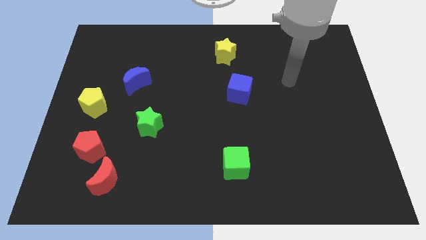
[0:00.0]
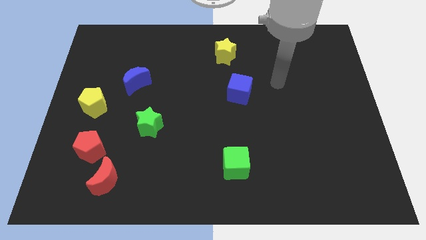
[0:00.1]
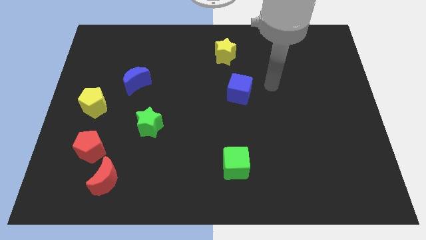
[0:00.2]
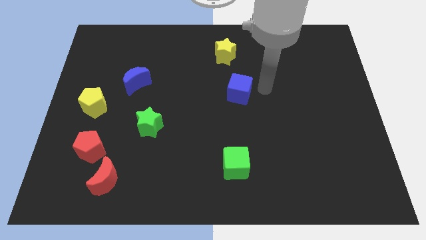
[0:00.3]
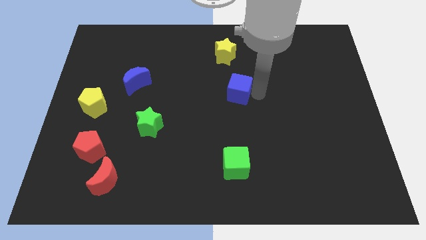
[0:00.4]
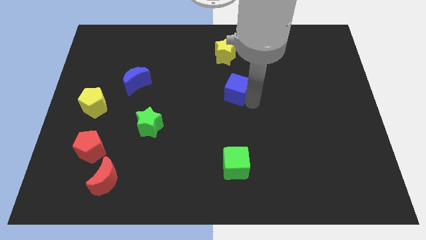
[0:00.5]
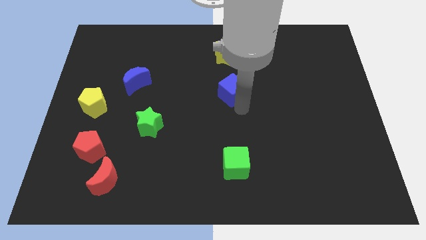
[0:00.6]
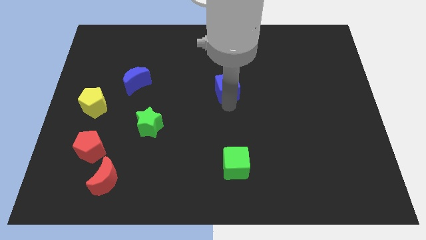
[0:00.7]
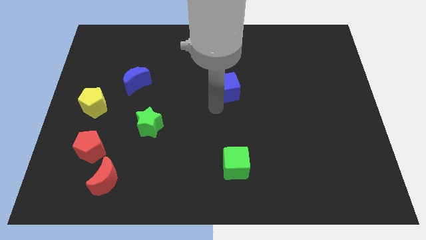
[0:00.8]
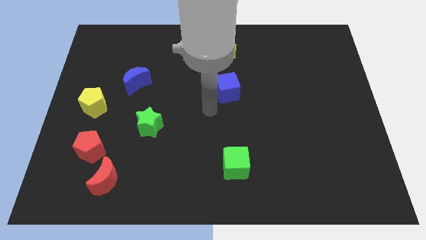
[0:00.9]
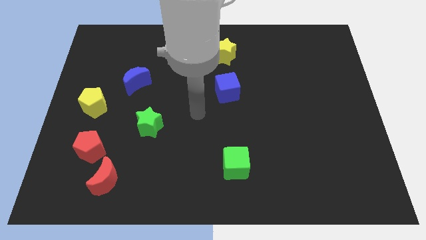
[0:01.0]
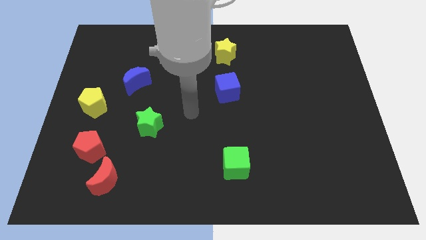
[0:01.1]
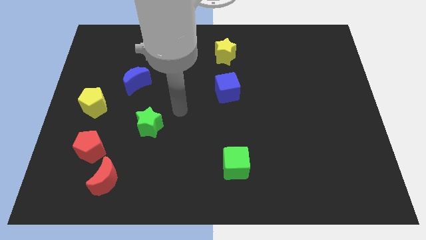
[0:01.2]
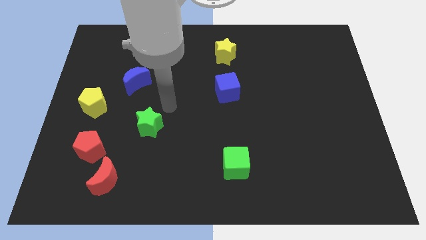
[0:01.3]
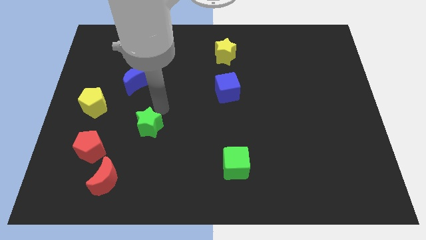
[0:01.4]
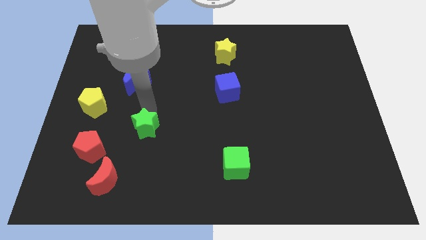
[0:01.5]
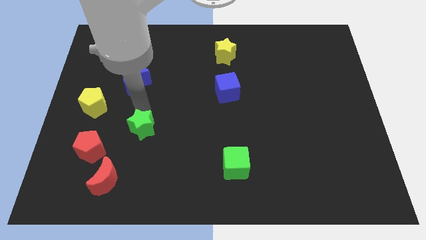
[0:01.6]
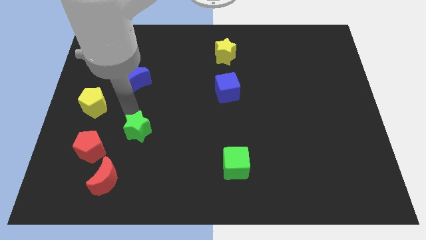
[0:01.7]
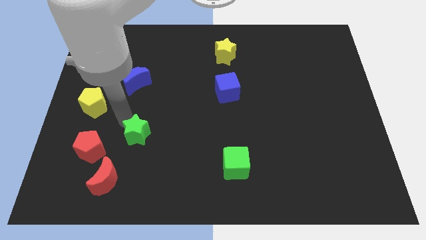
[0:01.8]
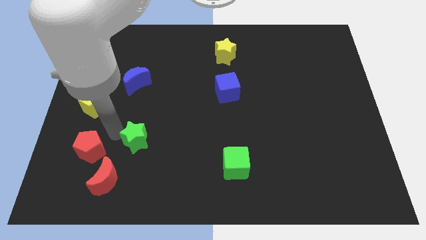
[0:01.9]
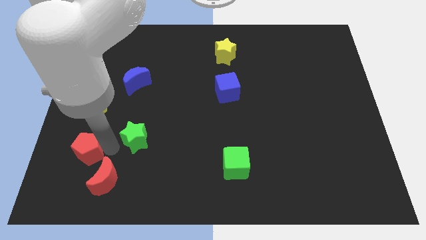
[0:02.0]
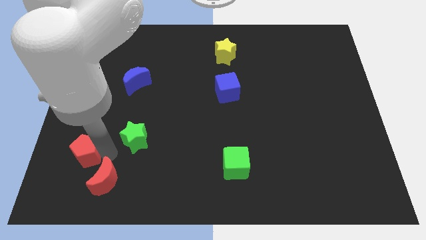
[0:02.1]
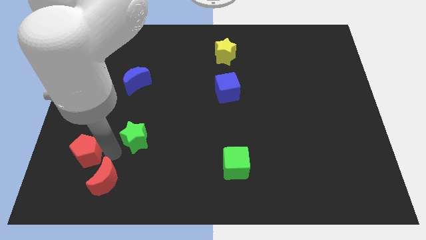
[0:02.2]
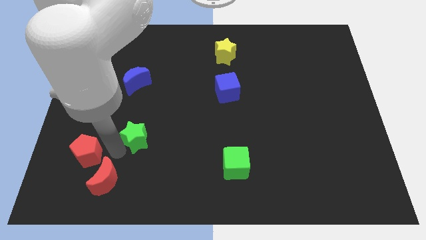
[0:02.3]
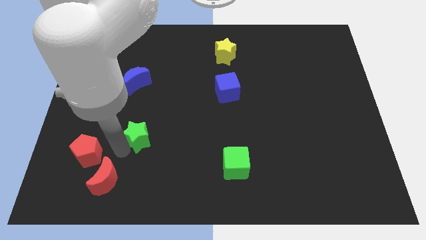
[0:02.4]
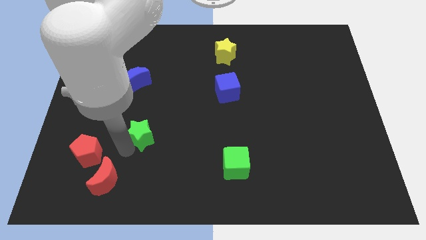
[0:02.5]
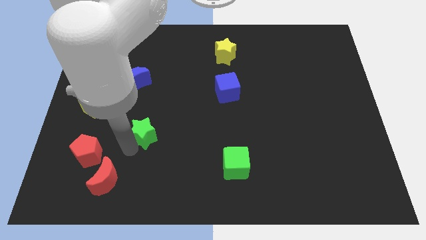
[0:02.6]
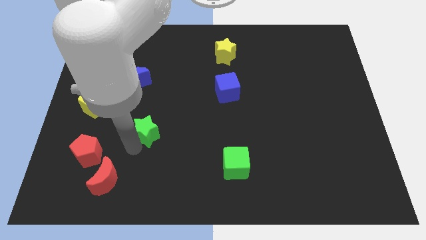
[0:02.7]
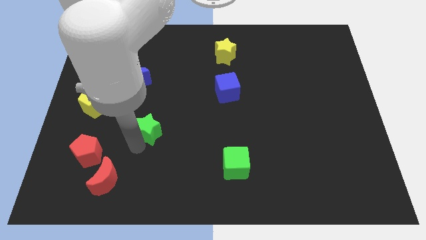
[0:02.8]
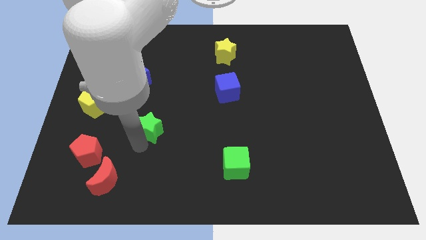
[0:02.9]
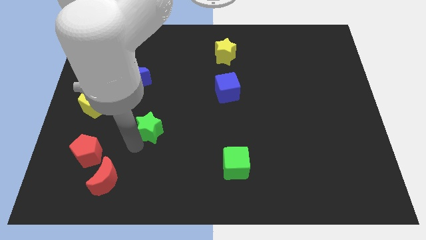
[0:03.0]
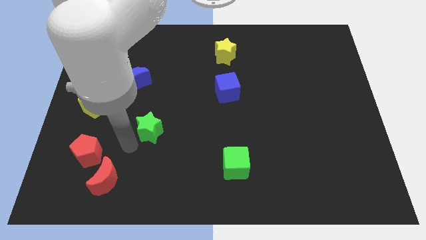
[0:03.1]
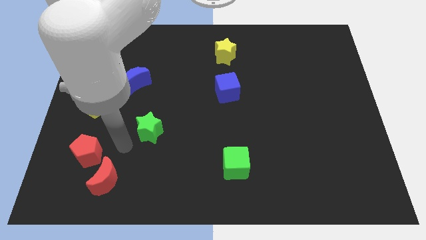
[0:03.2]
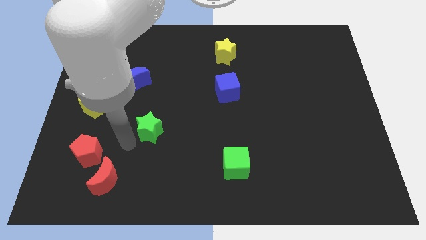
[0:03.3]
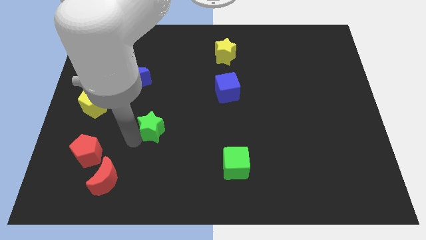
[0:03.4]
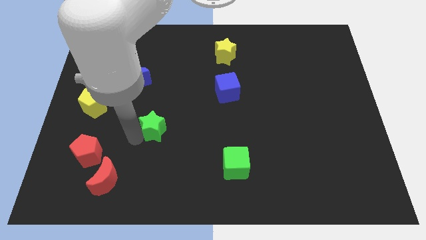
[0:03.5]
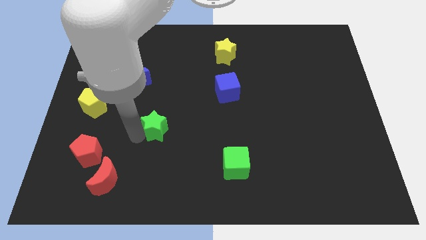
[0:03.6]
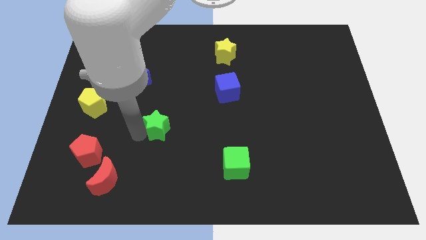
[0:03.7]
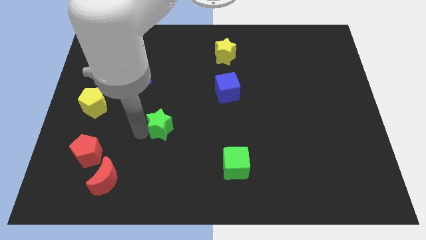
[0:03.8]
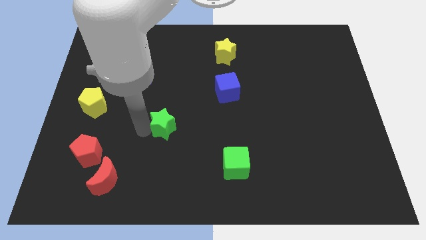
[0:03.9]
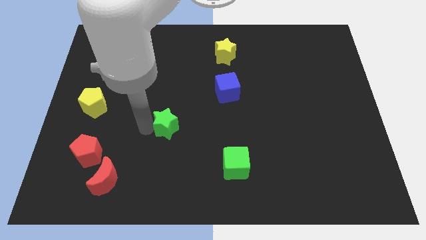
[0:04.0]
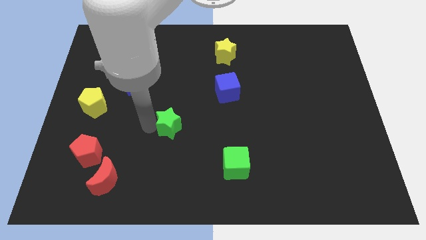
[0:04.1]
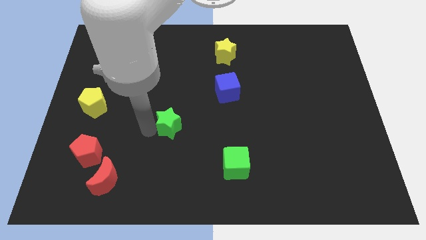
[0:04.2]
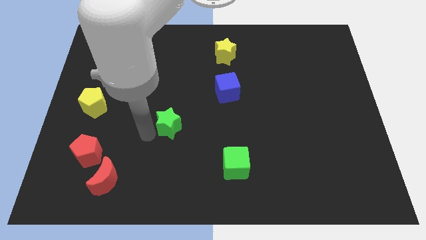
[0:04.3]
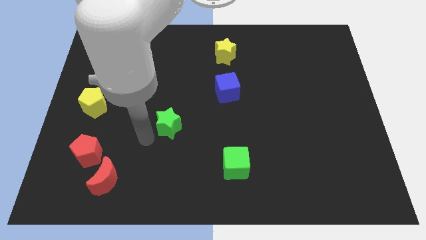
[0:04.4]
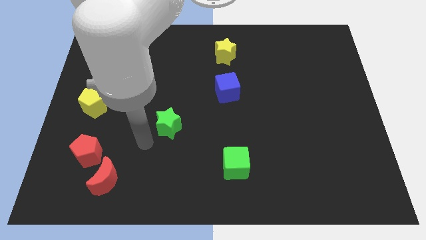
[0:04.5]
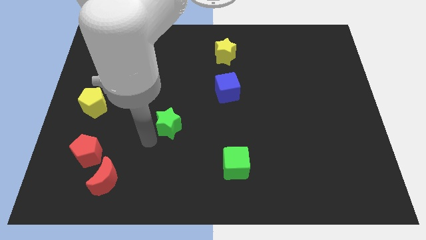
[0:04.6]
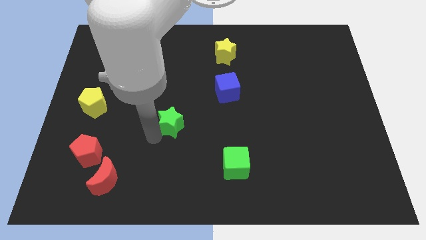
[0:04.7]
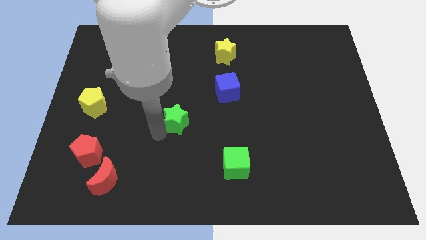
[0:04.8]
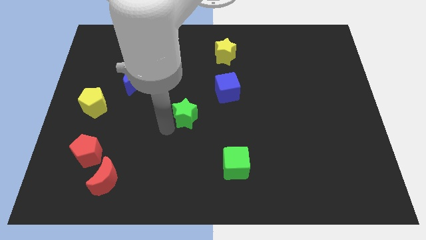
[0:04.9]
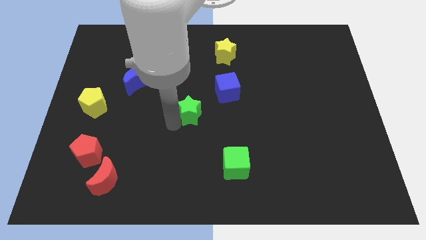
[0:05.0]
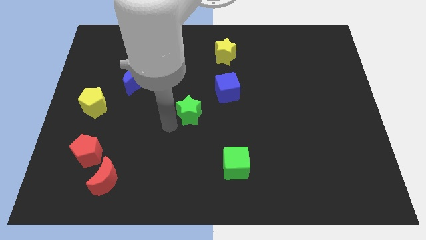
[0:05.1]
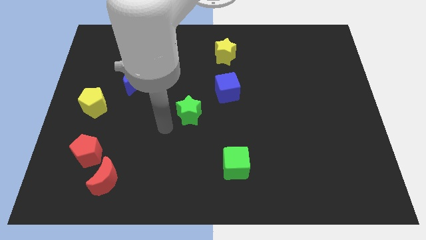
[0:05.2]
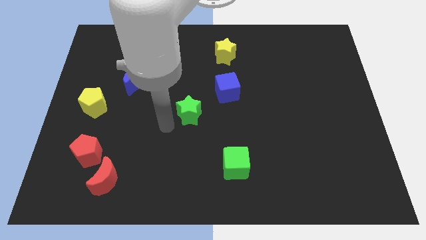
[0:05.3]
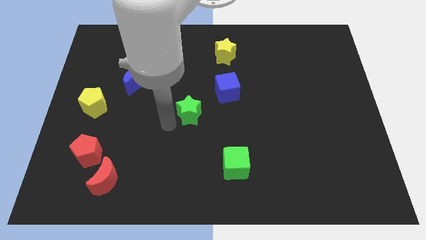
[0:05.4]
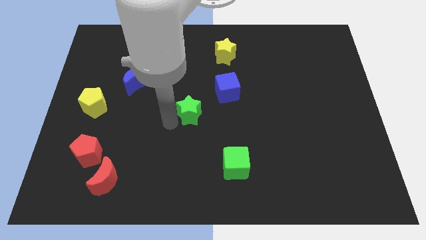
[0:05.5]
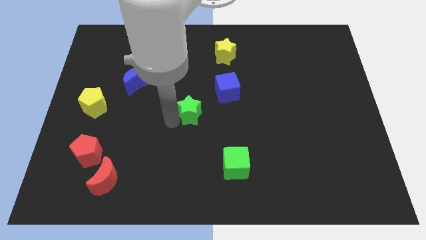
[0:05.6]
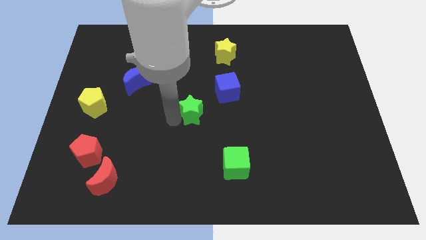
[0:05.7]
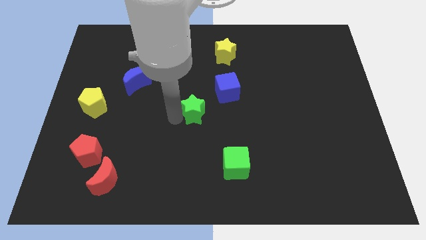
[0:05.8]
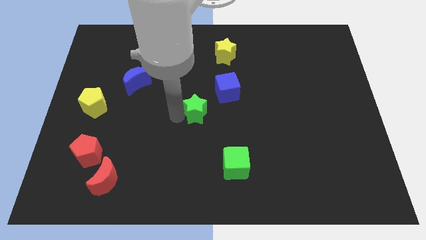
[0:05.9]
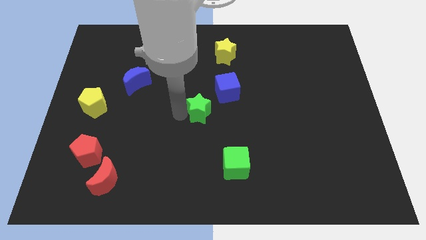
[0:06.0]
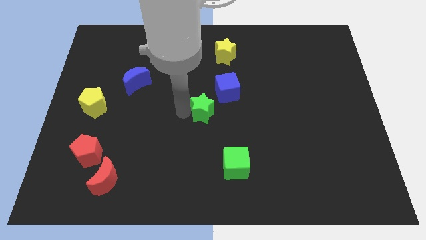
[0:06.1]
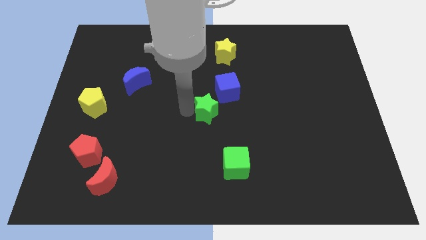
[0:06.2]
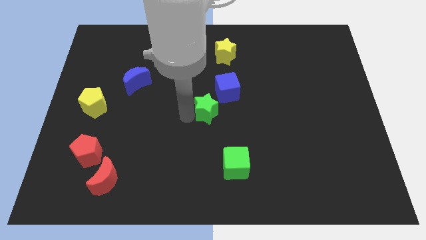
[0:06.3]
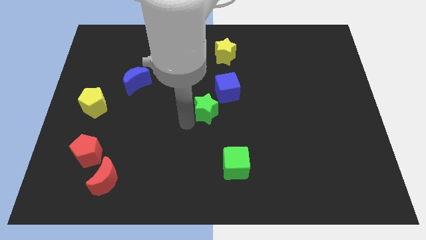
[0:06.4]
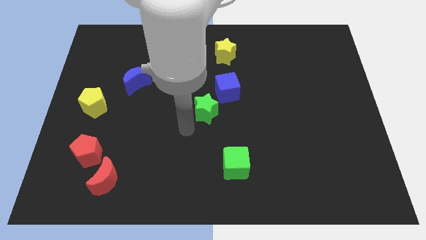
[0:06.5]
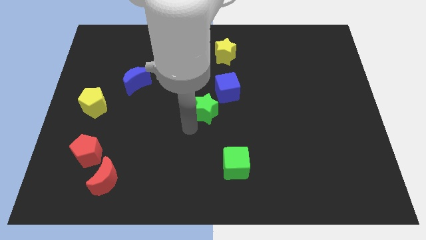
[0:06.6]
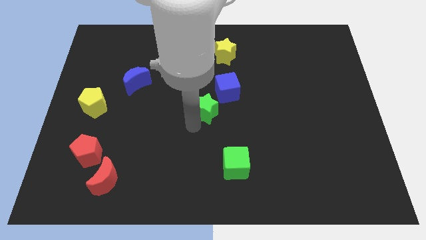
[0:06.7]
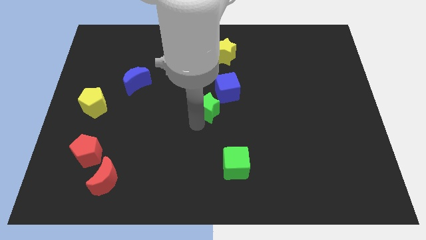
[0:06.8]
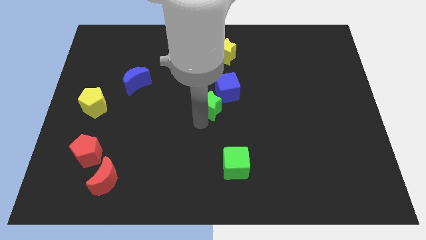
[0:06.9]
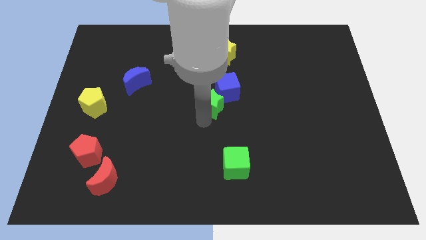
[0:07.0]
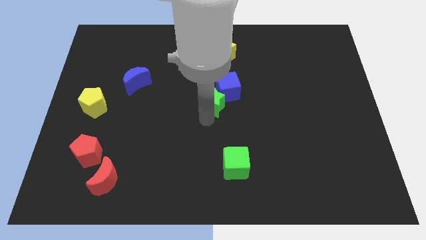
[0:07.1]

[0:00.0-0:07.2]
push the green star next to the blue cube

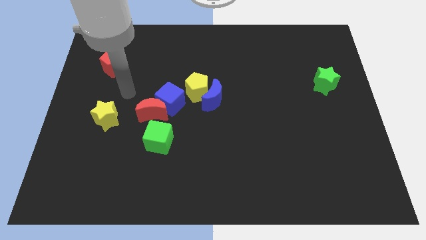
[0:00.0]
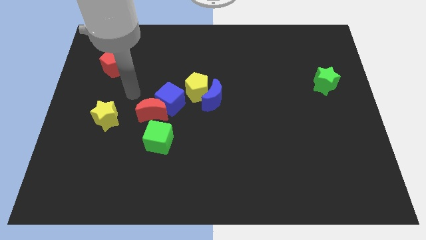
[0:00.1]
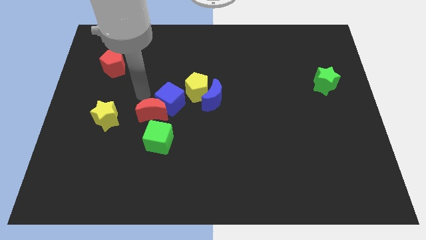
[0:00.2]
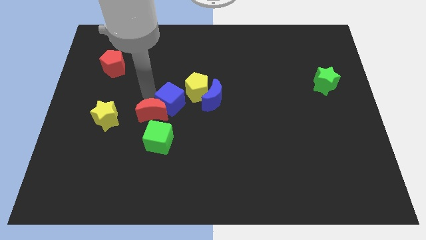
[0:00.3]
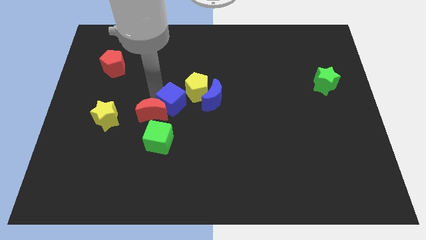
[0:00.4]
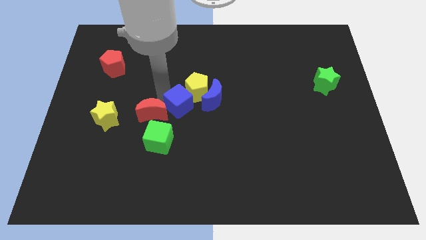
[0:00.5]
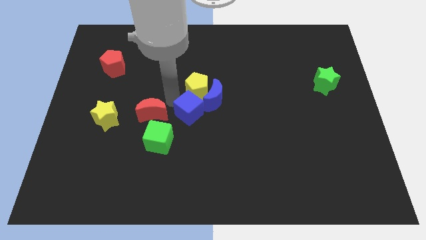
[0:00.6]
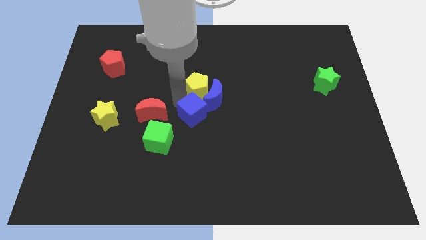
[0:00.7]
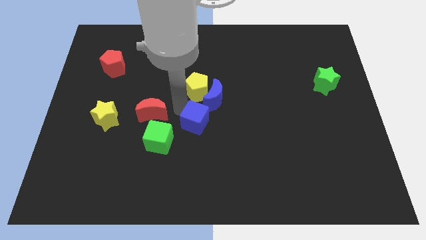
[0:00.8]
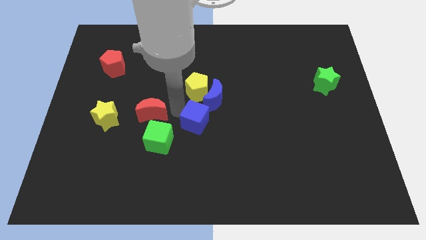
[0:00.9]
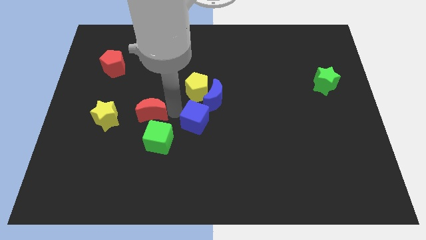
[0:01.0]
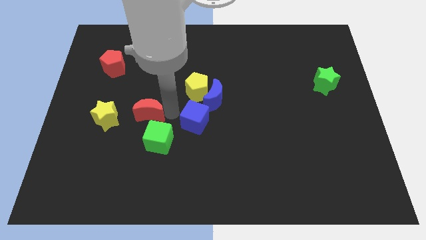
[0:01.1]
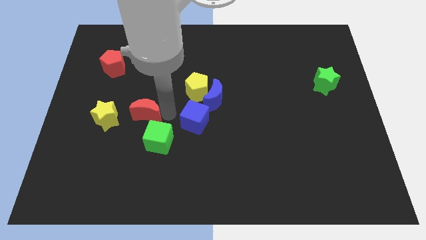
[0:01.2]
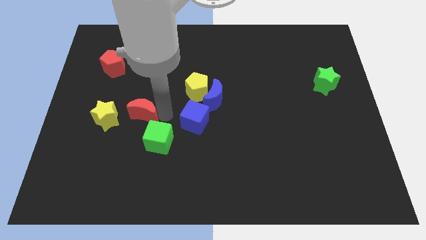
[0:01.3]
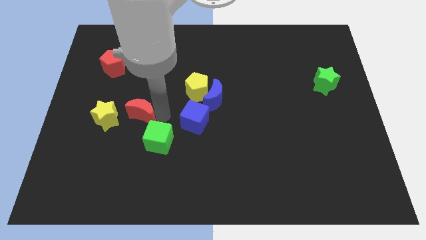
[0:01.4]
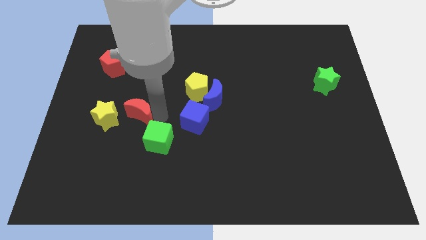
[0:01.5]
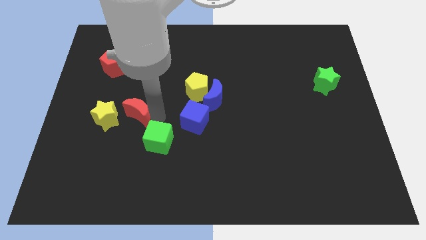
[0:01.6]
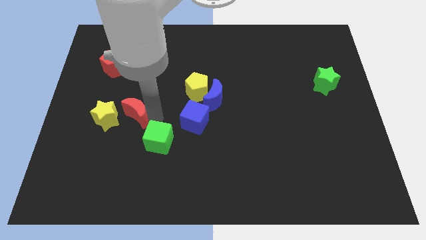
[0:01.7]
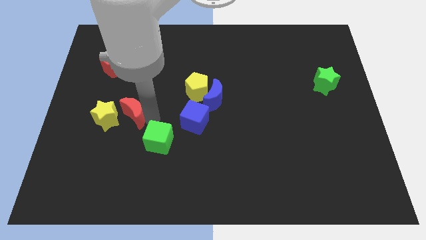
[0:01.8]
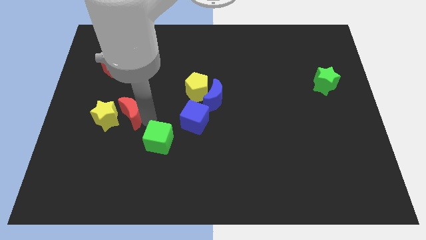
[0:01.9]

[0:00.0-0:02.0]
put the red moon to the yellow star
